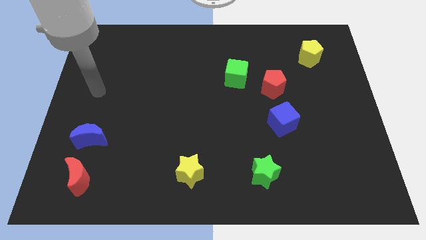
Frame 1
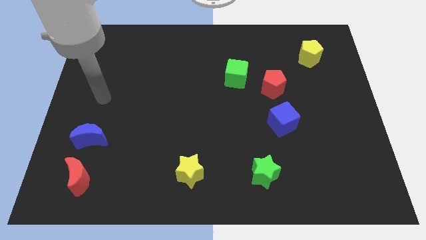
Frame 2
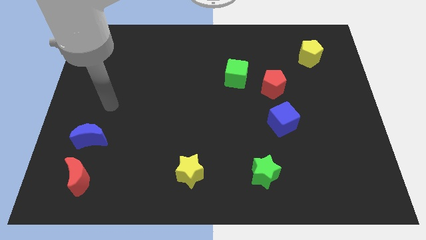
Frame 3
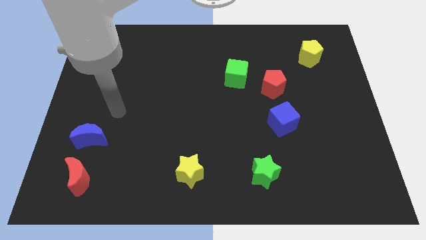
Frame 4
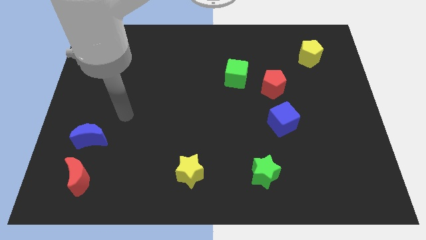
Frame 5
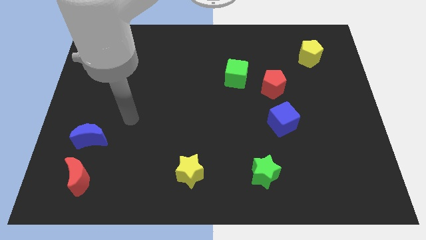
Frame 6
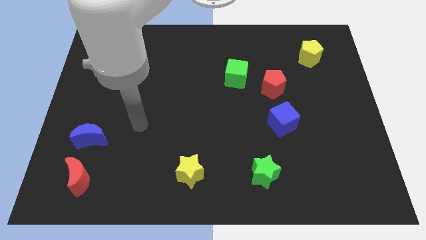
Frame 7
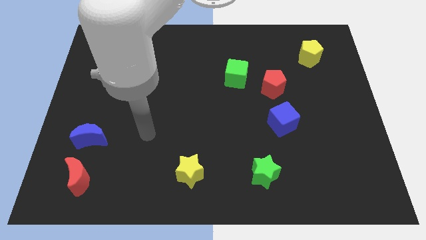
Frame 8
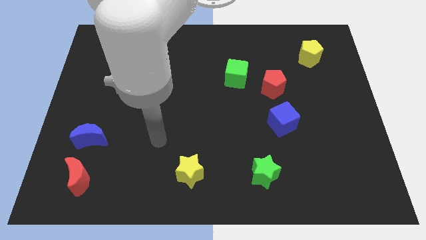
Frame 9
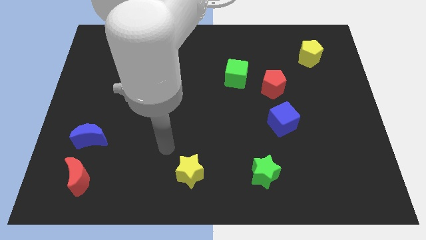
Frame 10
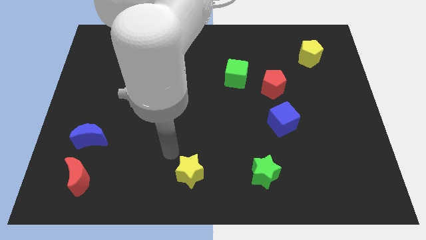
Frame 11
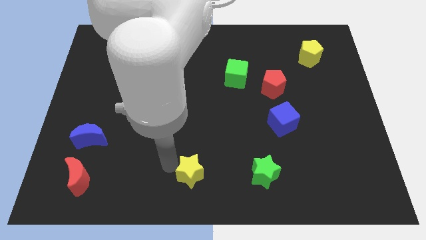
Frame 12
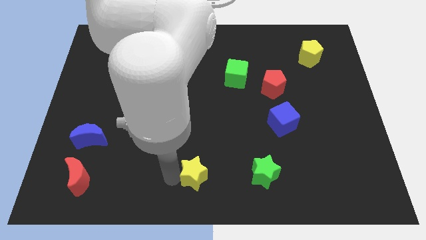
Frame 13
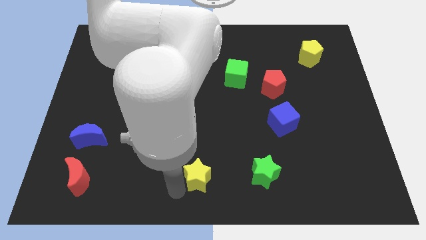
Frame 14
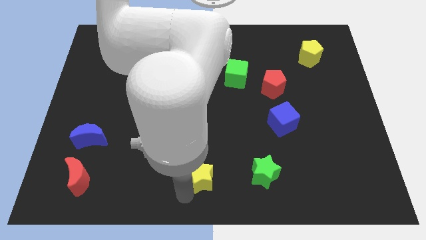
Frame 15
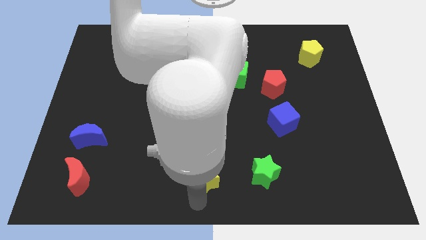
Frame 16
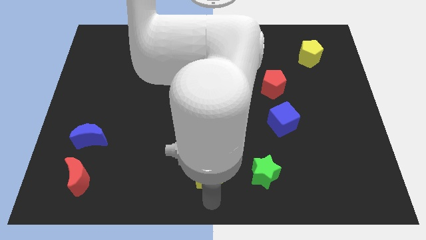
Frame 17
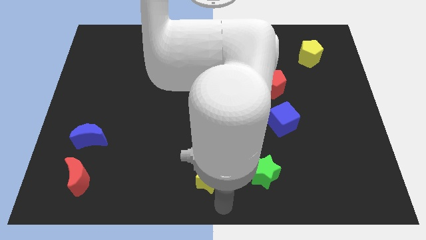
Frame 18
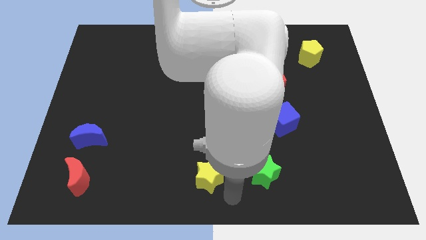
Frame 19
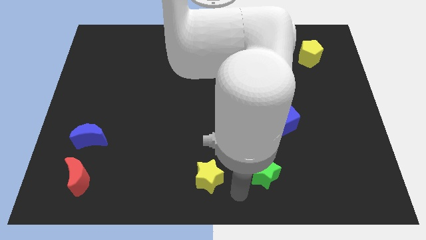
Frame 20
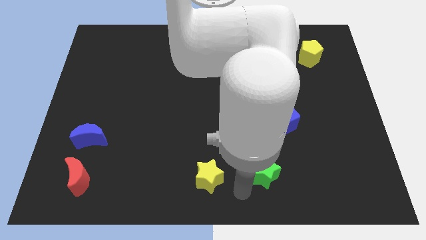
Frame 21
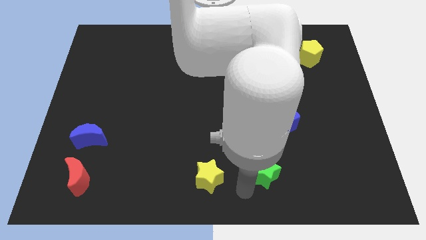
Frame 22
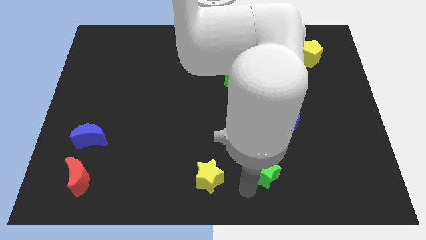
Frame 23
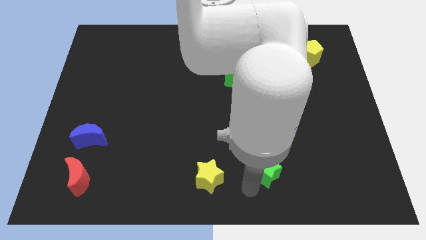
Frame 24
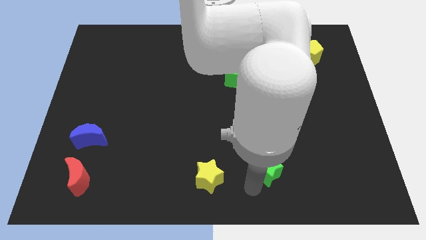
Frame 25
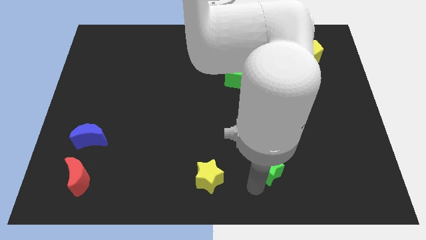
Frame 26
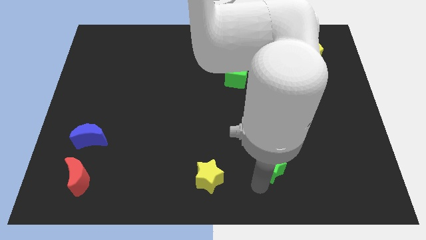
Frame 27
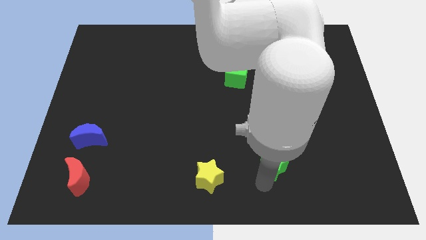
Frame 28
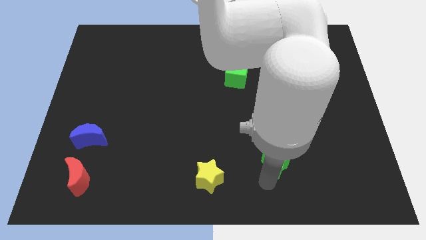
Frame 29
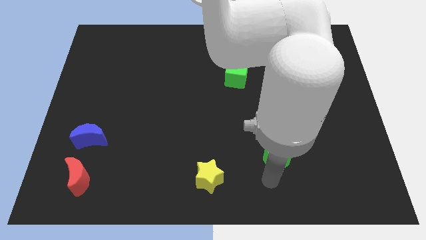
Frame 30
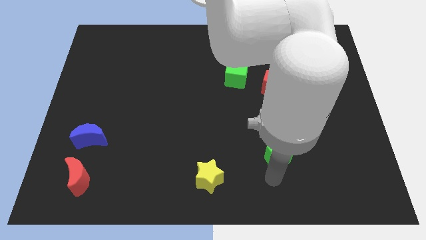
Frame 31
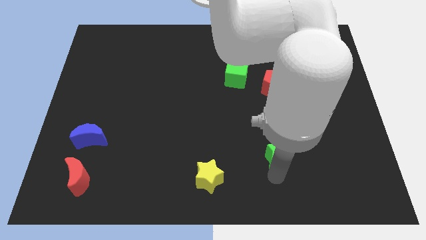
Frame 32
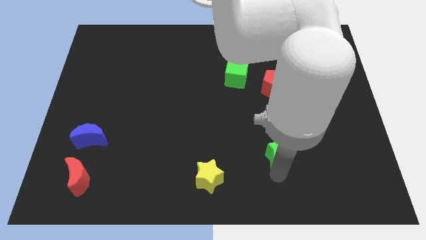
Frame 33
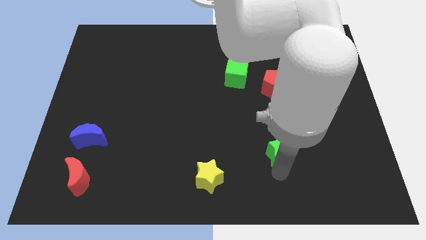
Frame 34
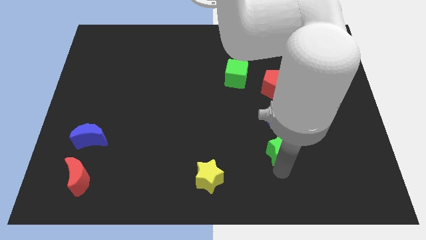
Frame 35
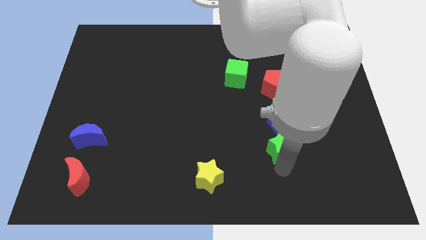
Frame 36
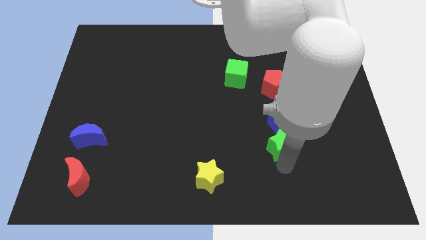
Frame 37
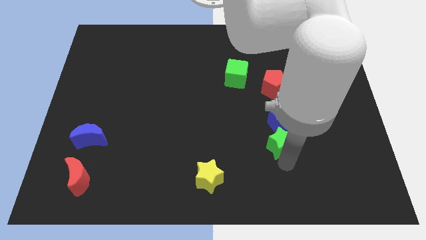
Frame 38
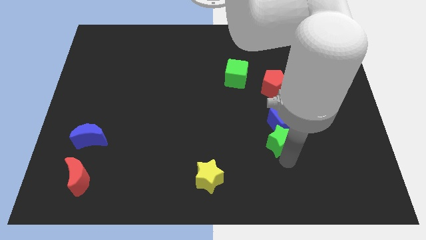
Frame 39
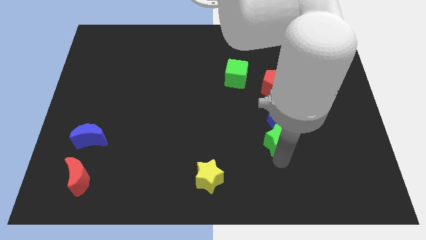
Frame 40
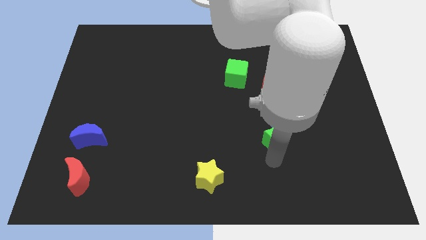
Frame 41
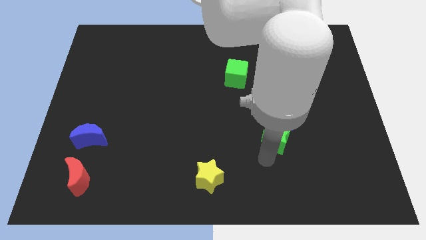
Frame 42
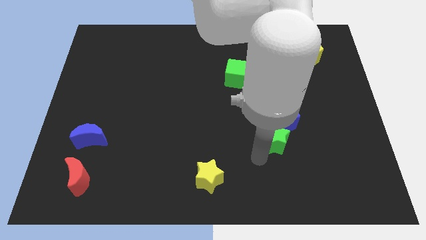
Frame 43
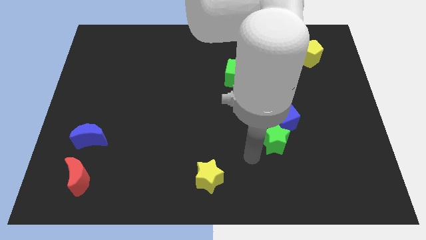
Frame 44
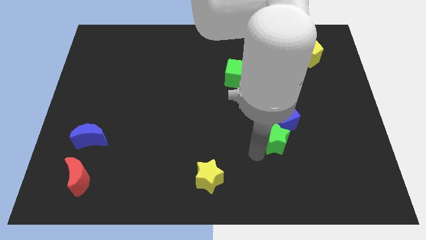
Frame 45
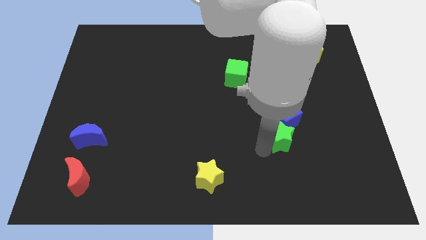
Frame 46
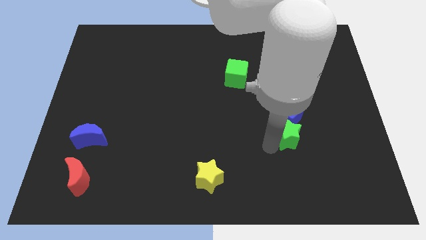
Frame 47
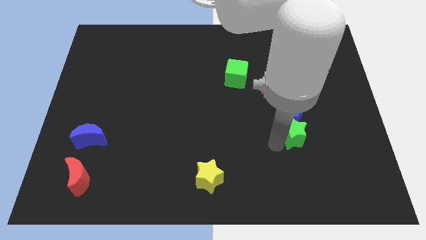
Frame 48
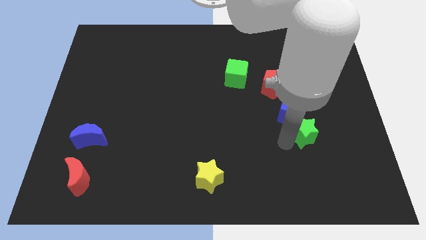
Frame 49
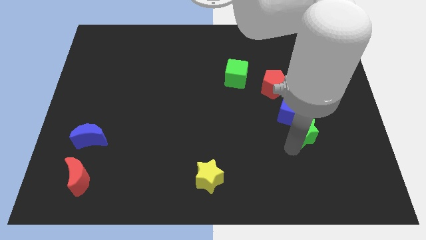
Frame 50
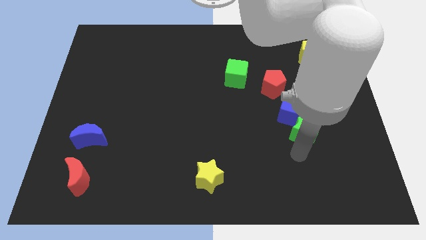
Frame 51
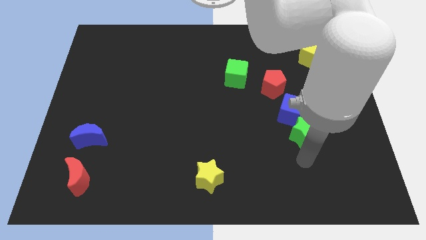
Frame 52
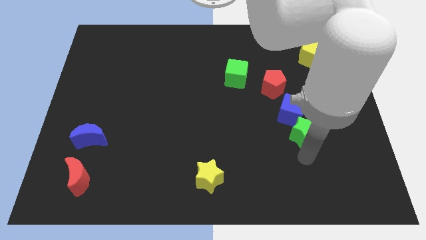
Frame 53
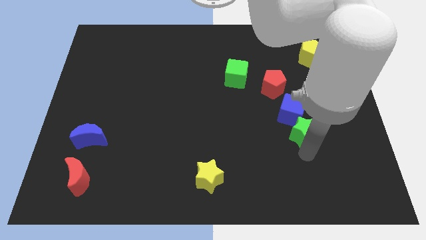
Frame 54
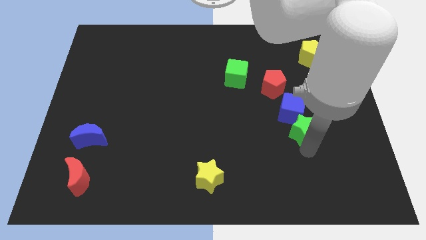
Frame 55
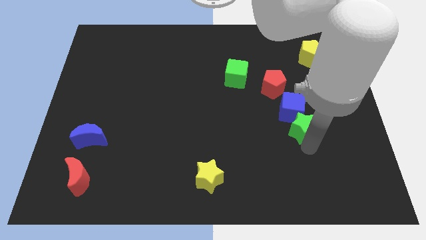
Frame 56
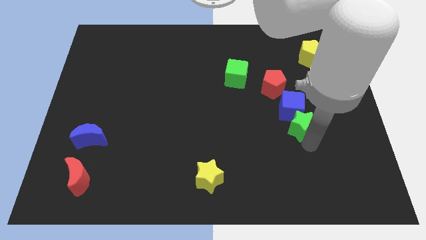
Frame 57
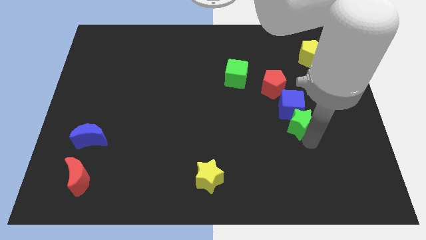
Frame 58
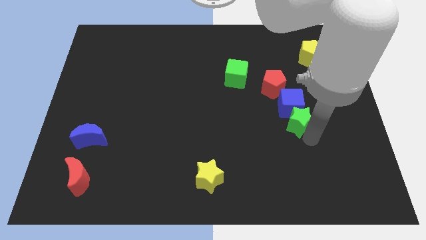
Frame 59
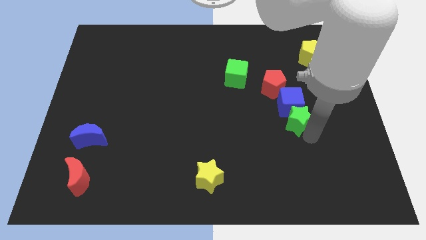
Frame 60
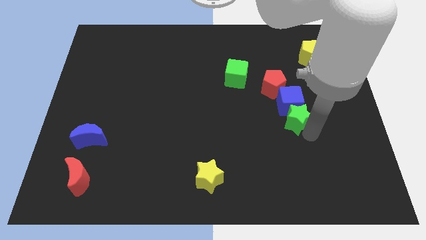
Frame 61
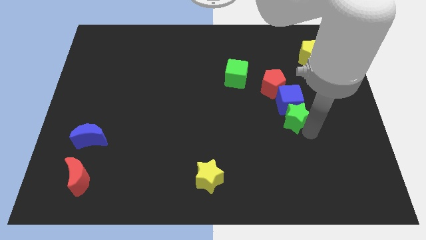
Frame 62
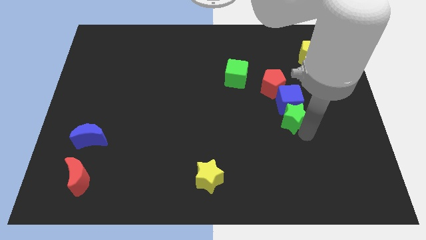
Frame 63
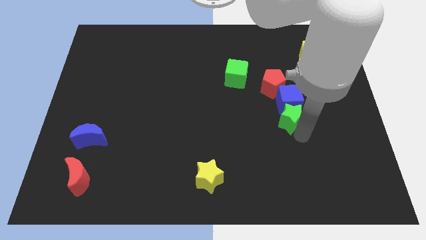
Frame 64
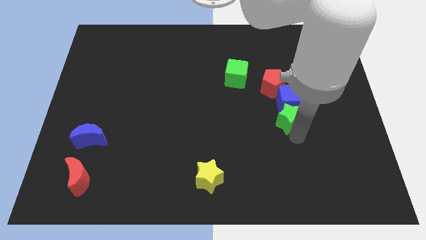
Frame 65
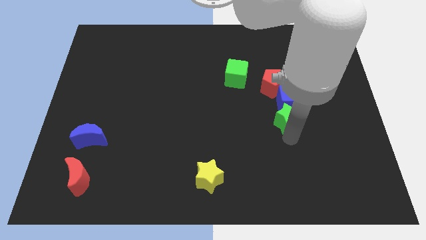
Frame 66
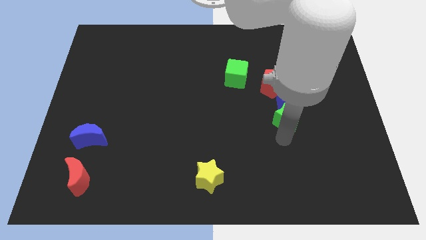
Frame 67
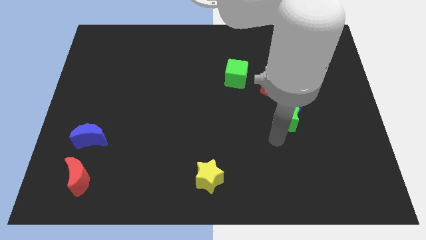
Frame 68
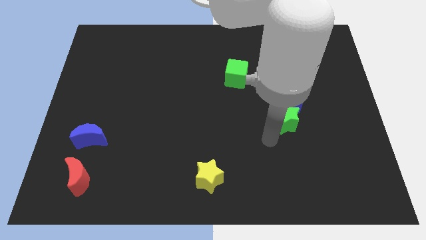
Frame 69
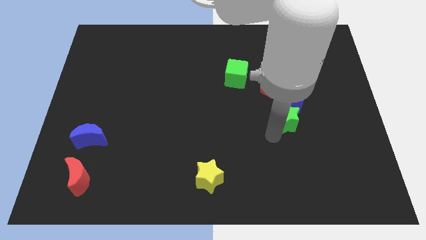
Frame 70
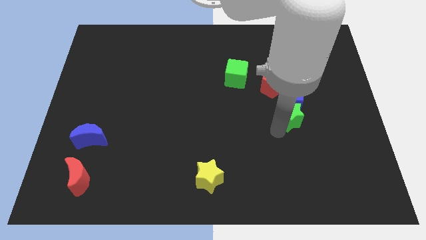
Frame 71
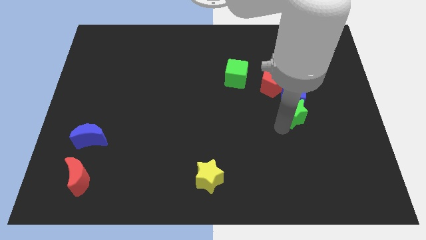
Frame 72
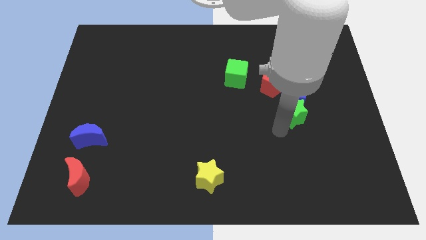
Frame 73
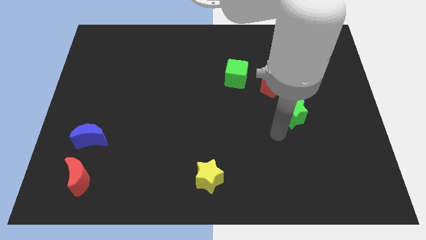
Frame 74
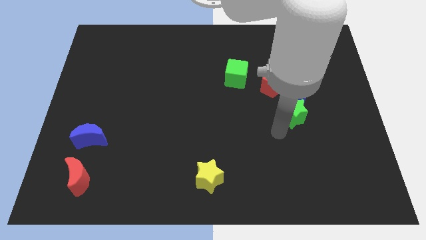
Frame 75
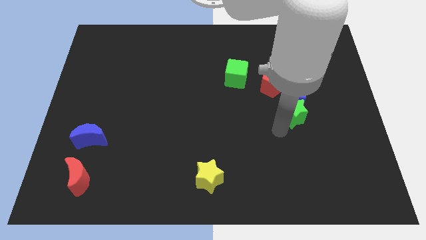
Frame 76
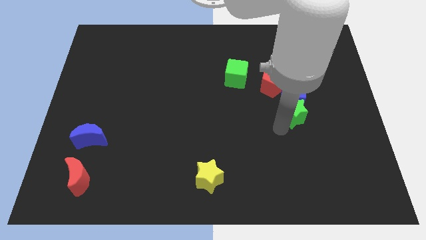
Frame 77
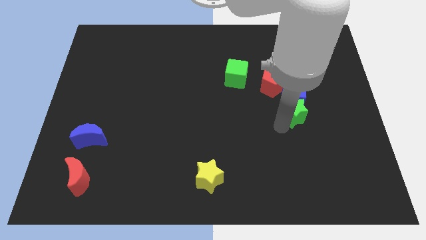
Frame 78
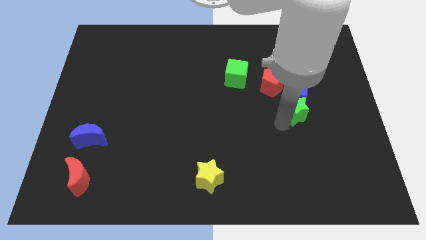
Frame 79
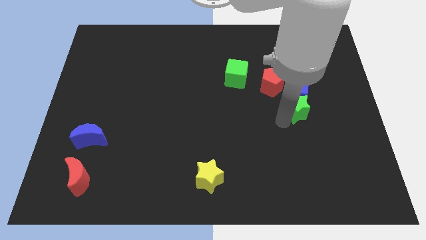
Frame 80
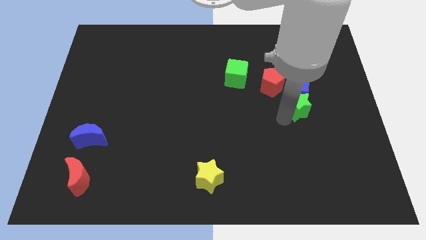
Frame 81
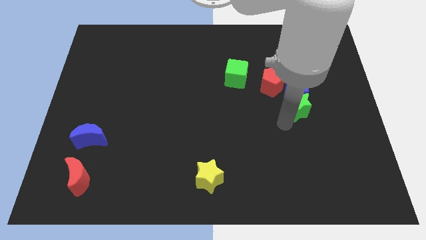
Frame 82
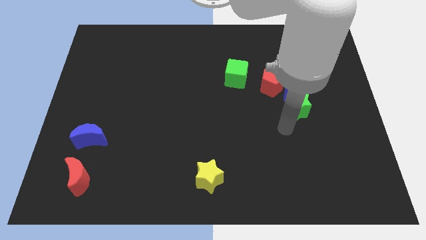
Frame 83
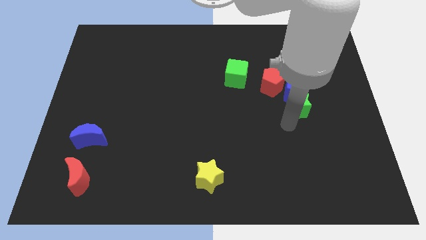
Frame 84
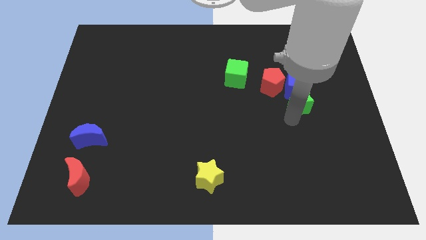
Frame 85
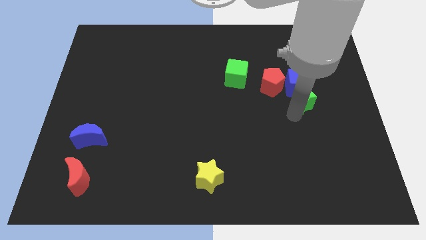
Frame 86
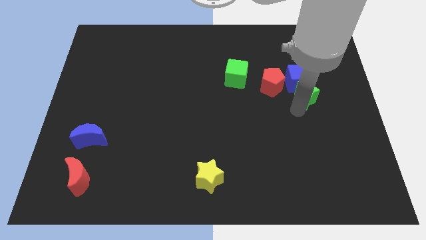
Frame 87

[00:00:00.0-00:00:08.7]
push the green star just right of the red pentagon
